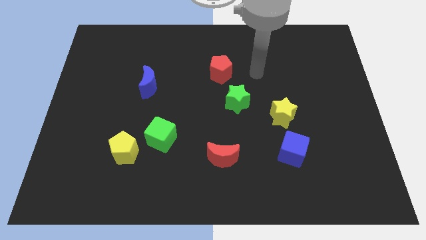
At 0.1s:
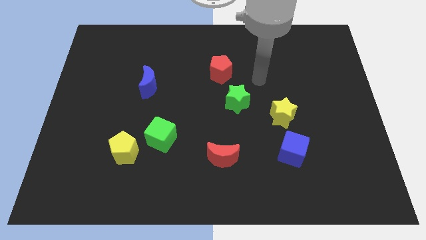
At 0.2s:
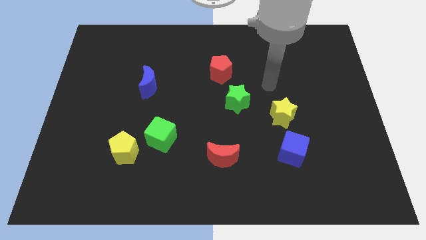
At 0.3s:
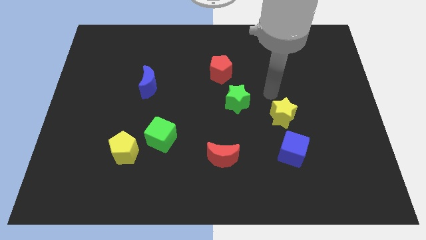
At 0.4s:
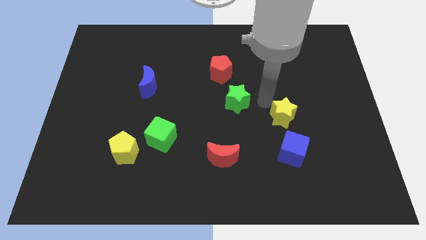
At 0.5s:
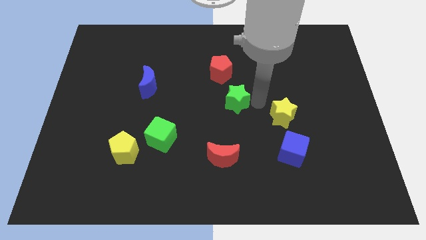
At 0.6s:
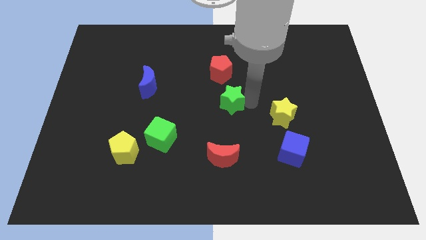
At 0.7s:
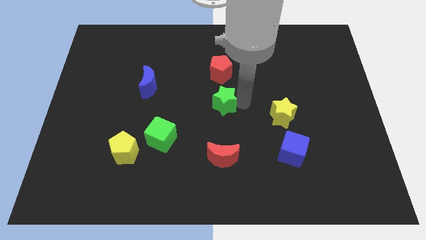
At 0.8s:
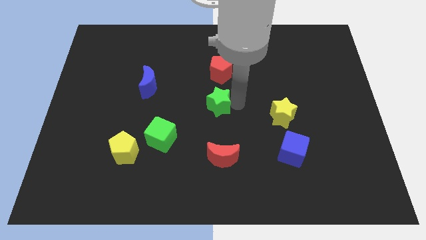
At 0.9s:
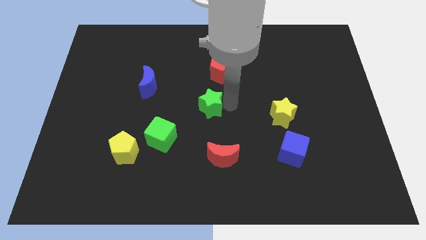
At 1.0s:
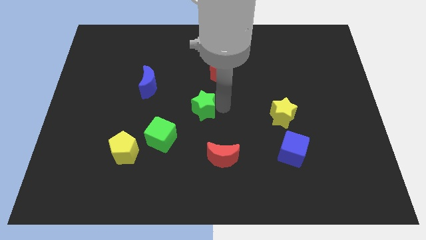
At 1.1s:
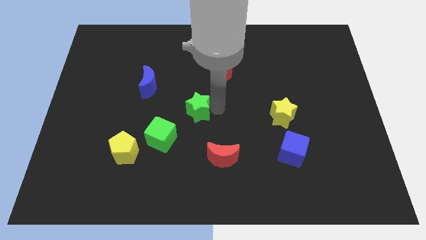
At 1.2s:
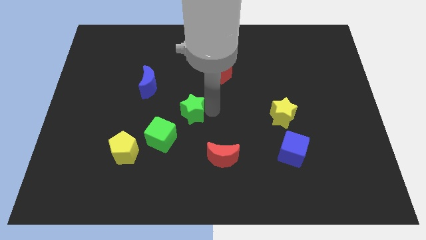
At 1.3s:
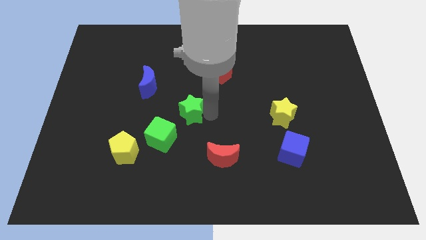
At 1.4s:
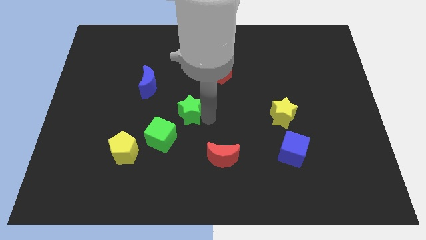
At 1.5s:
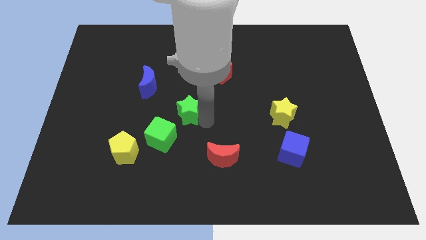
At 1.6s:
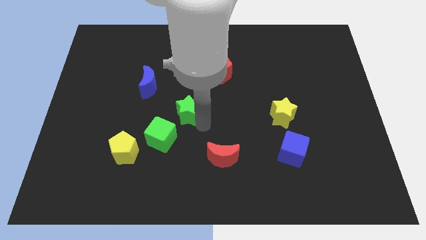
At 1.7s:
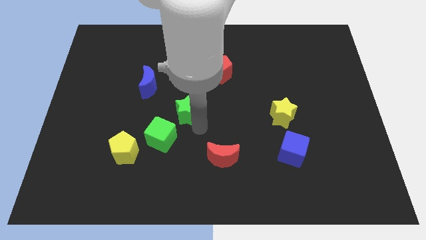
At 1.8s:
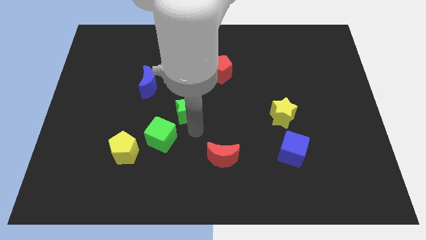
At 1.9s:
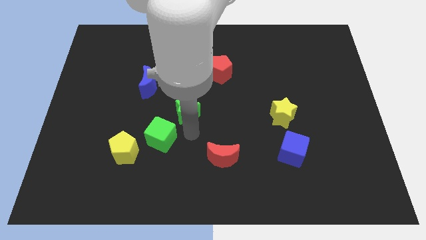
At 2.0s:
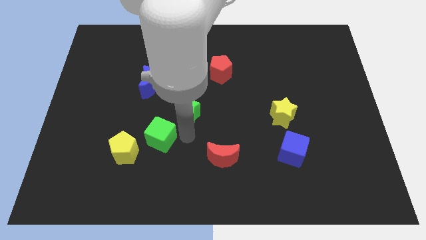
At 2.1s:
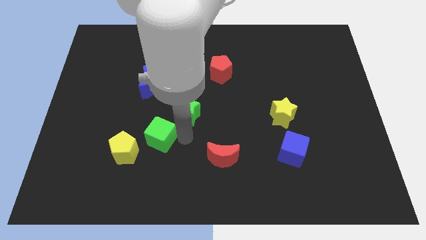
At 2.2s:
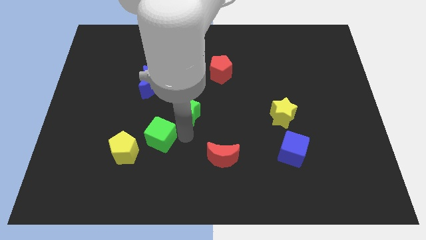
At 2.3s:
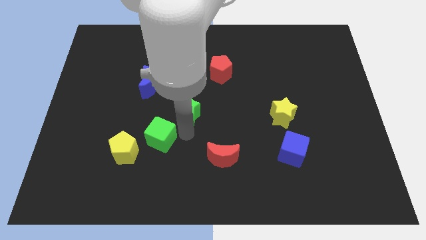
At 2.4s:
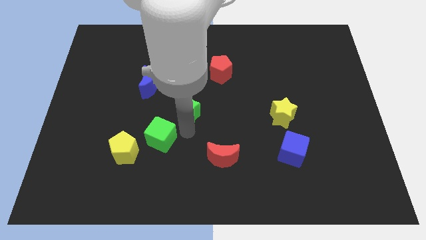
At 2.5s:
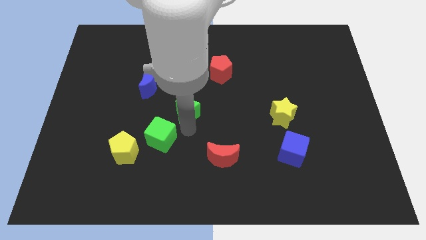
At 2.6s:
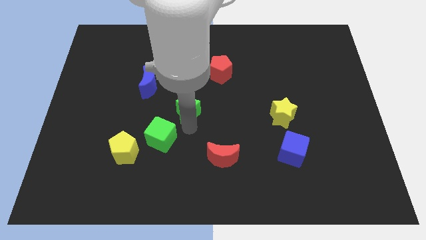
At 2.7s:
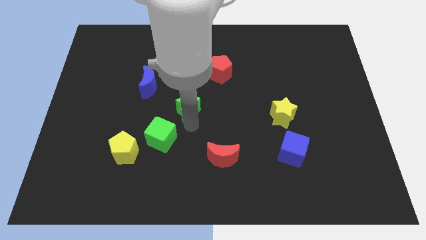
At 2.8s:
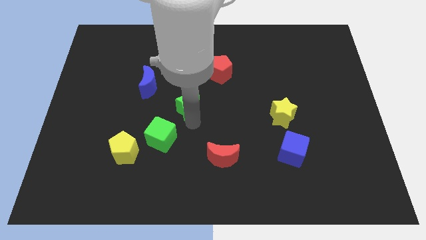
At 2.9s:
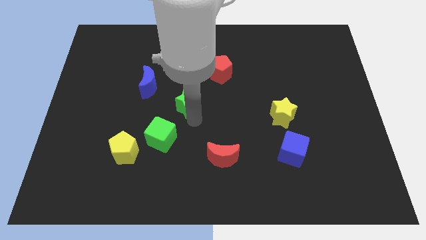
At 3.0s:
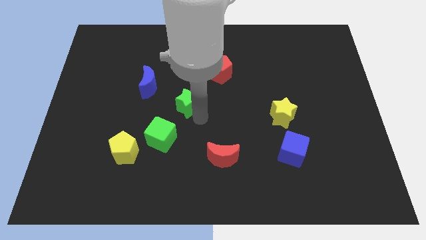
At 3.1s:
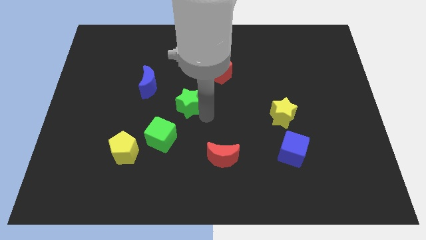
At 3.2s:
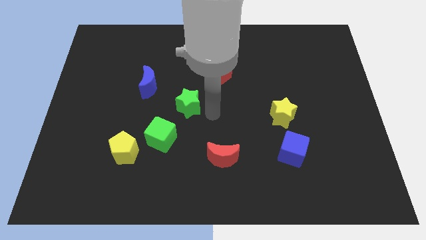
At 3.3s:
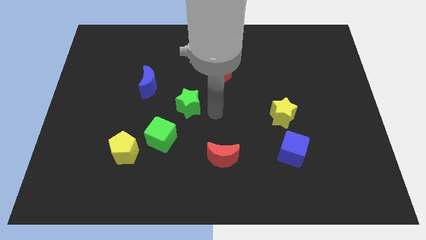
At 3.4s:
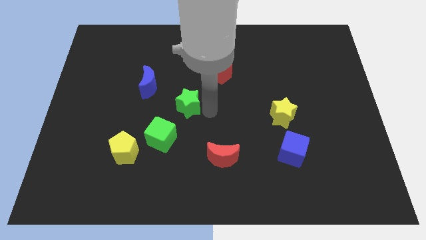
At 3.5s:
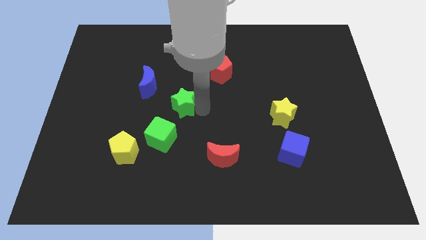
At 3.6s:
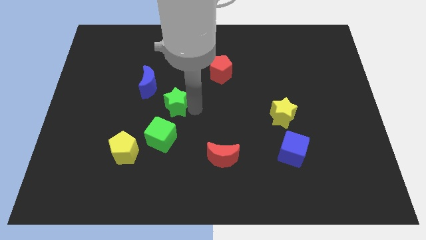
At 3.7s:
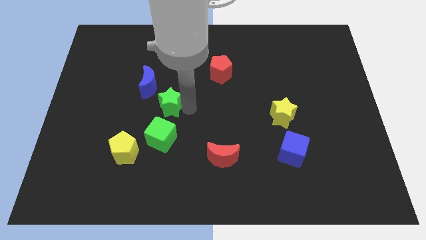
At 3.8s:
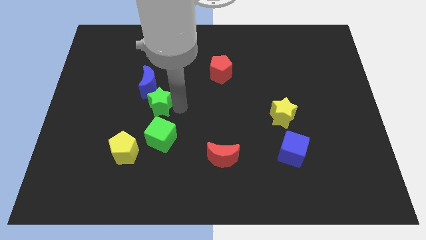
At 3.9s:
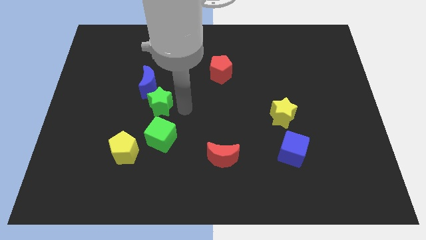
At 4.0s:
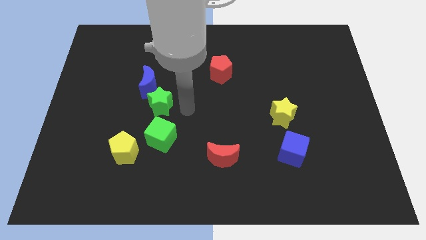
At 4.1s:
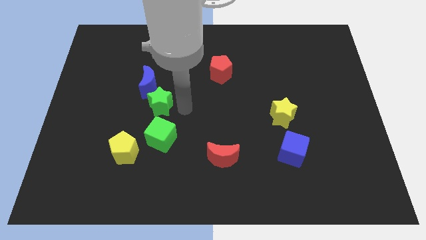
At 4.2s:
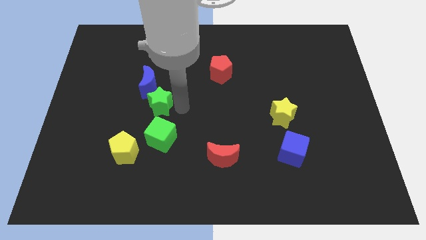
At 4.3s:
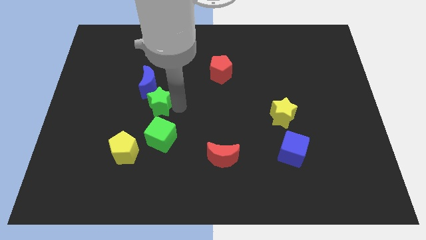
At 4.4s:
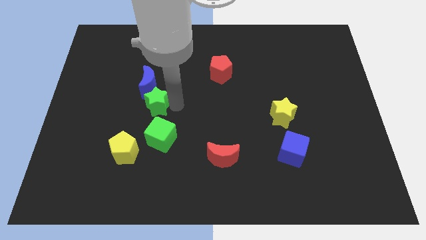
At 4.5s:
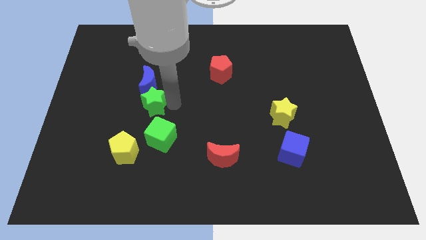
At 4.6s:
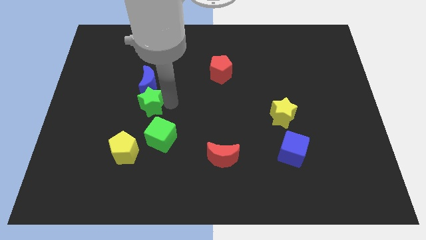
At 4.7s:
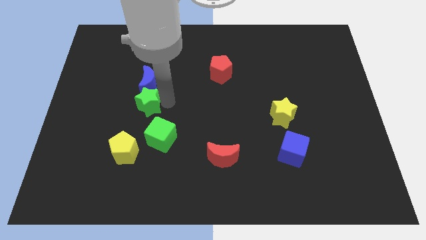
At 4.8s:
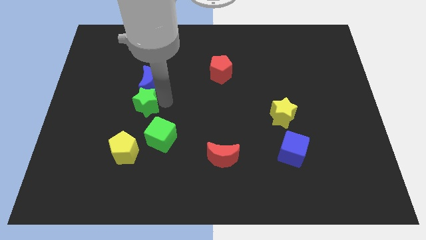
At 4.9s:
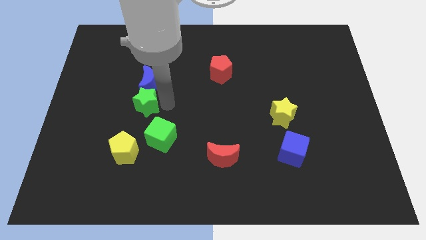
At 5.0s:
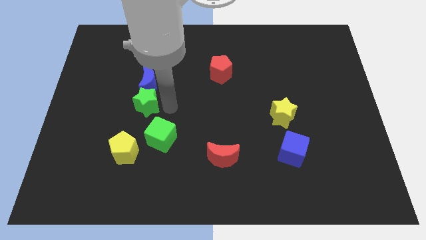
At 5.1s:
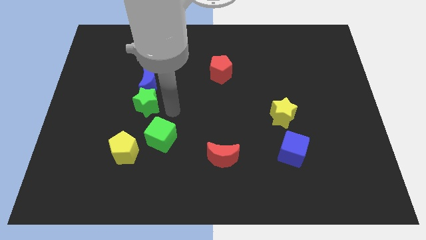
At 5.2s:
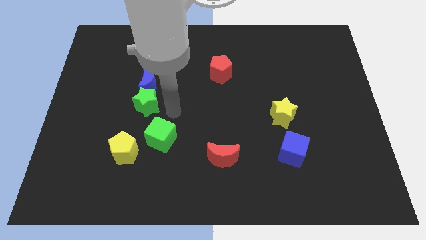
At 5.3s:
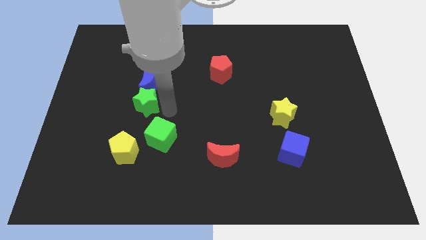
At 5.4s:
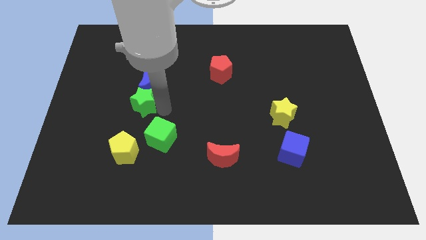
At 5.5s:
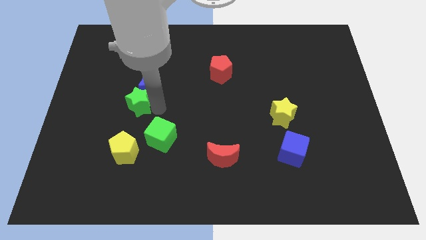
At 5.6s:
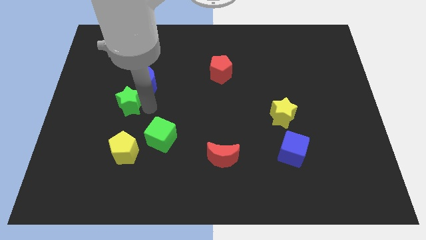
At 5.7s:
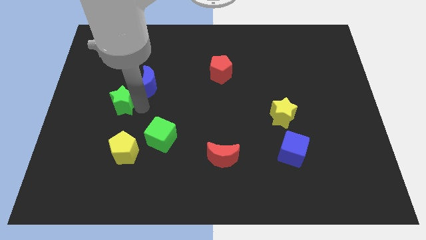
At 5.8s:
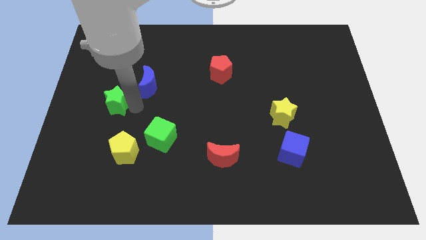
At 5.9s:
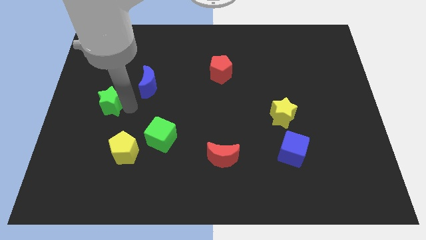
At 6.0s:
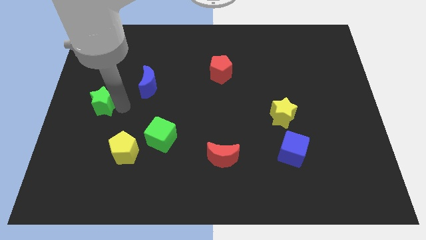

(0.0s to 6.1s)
move the green star to the left side of the board
